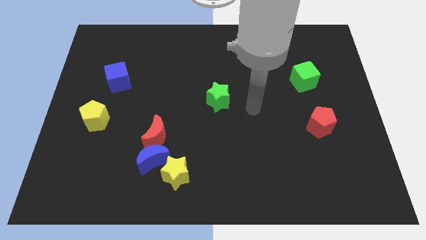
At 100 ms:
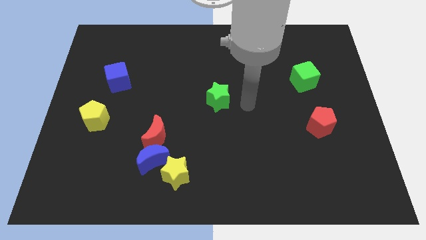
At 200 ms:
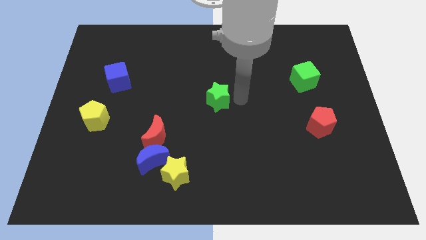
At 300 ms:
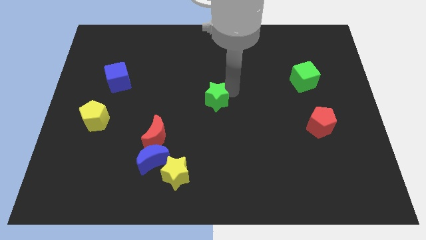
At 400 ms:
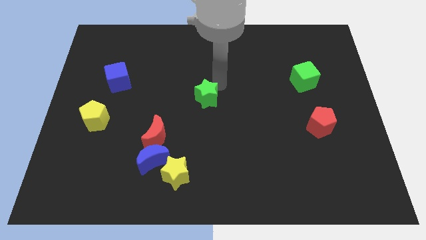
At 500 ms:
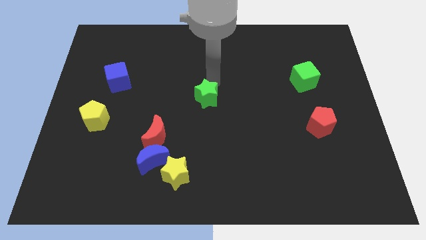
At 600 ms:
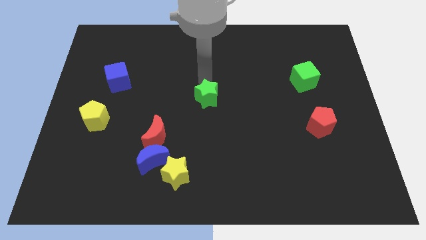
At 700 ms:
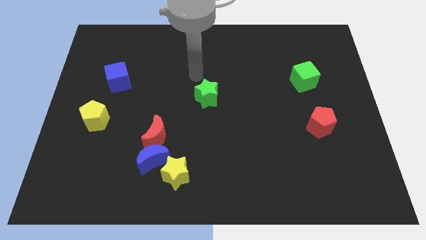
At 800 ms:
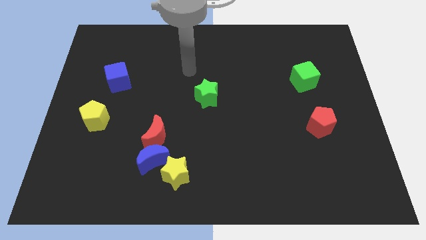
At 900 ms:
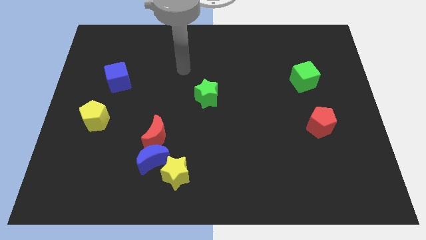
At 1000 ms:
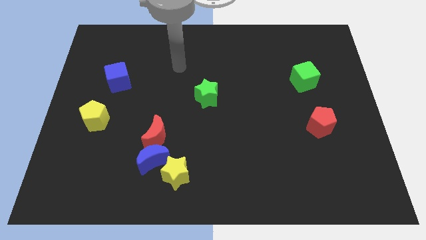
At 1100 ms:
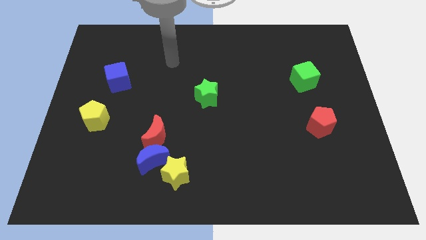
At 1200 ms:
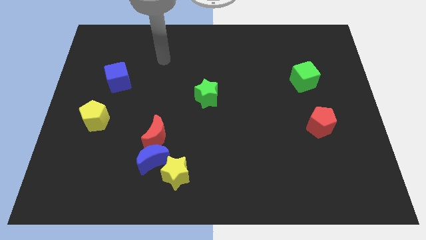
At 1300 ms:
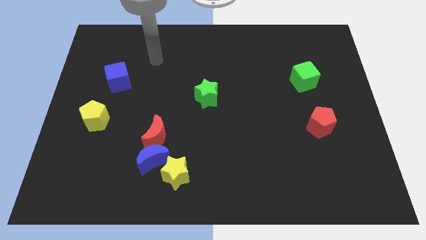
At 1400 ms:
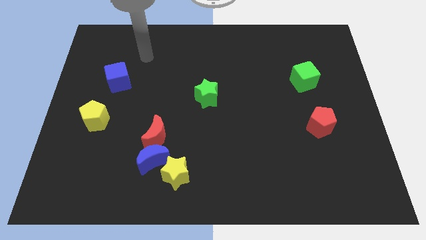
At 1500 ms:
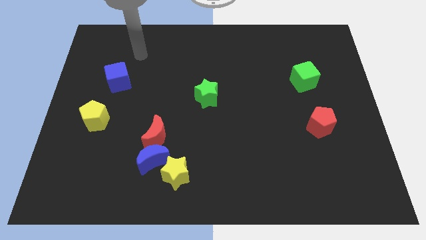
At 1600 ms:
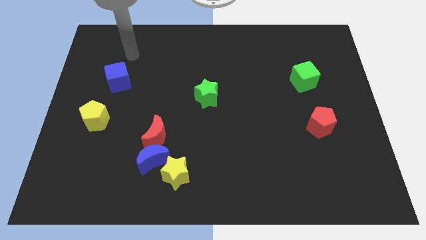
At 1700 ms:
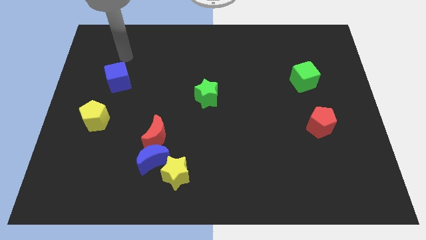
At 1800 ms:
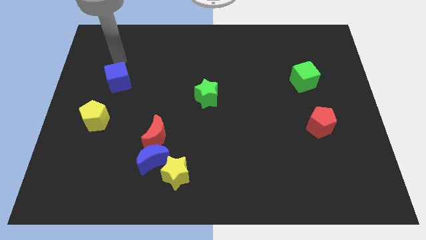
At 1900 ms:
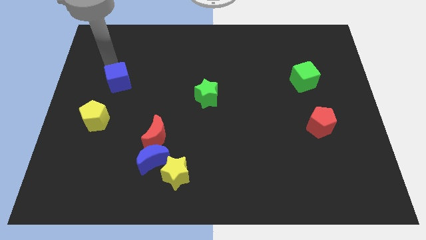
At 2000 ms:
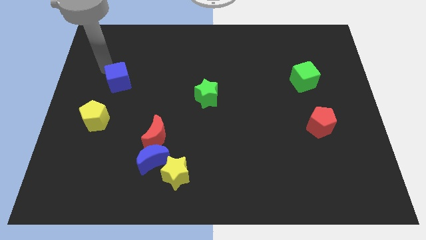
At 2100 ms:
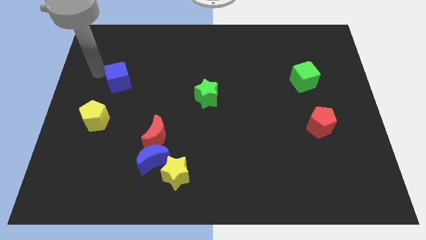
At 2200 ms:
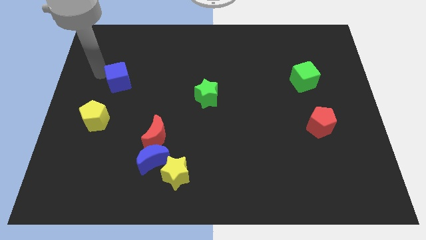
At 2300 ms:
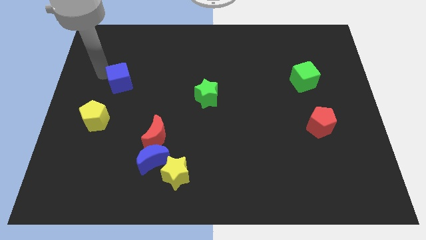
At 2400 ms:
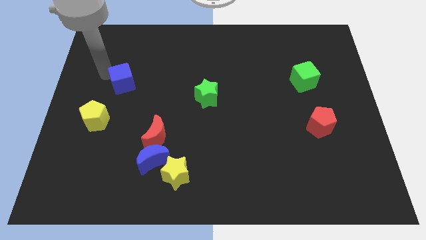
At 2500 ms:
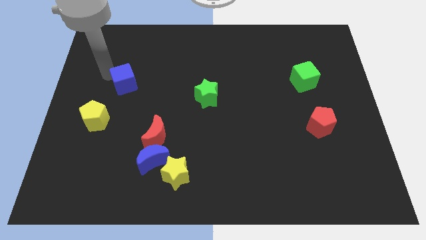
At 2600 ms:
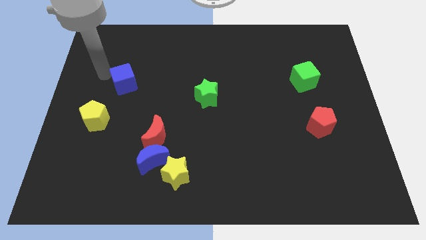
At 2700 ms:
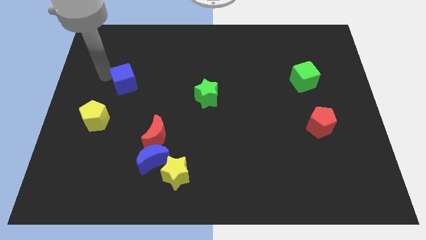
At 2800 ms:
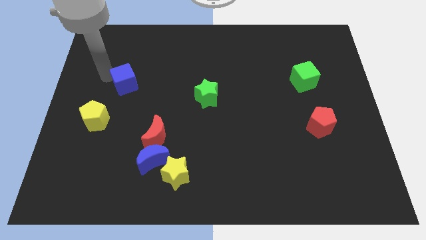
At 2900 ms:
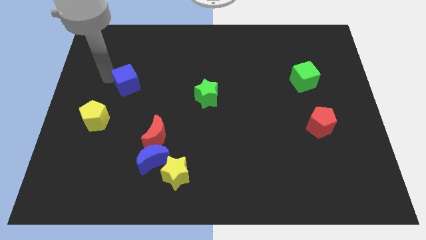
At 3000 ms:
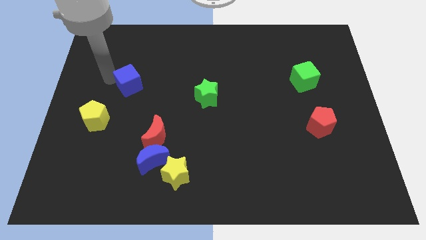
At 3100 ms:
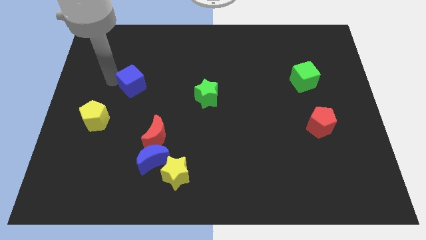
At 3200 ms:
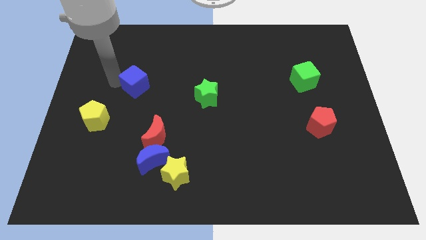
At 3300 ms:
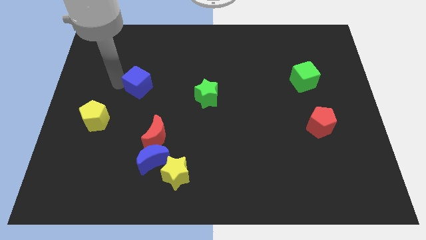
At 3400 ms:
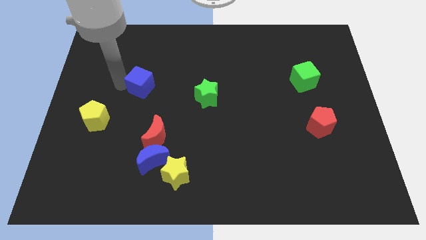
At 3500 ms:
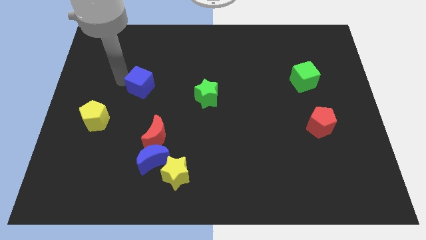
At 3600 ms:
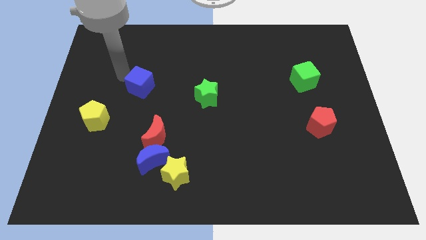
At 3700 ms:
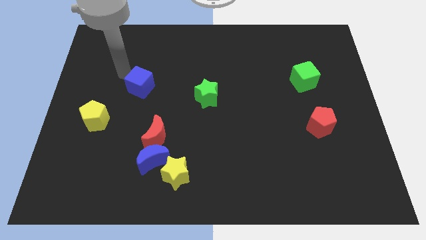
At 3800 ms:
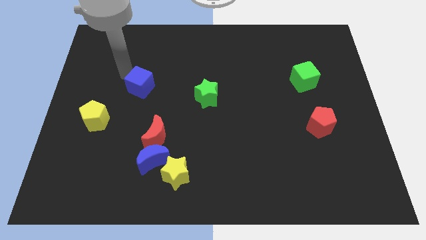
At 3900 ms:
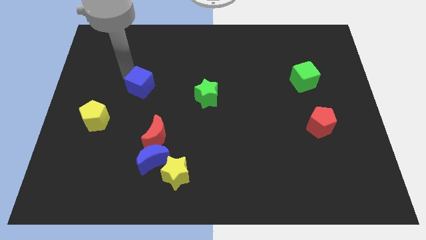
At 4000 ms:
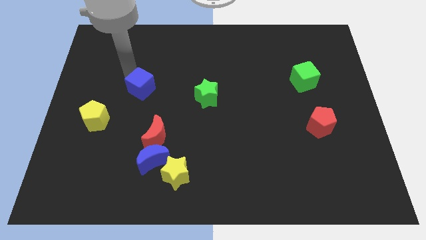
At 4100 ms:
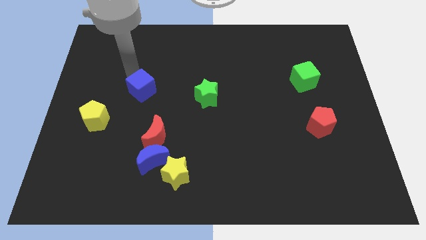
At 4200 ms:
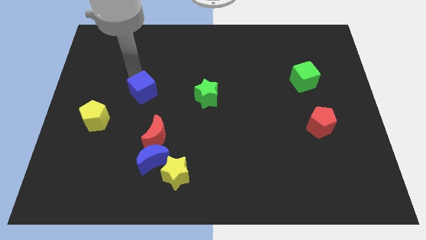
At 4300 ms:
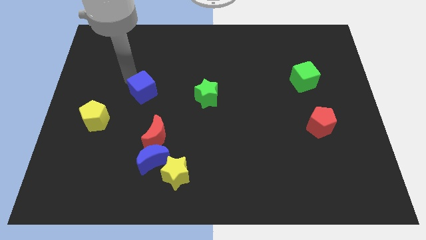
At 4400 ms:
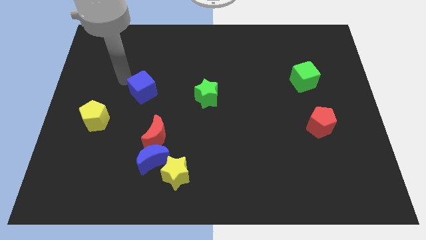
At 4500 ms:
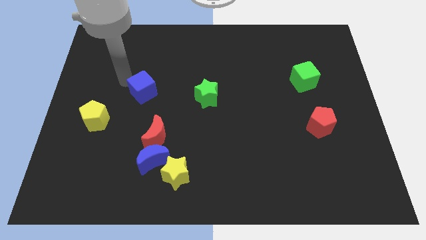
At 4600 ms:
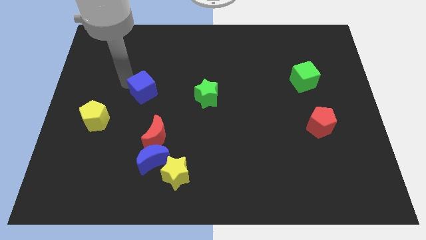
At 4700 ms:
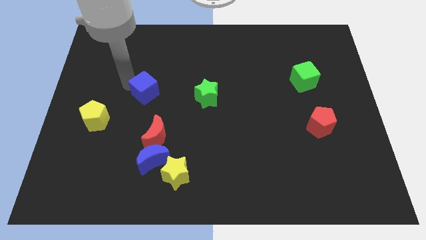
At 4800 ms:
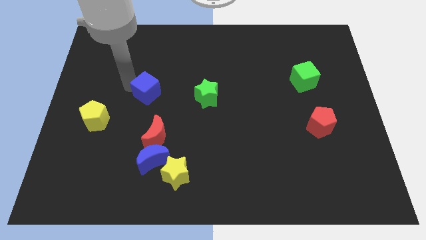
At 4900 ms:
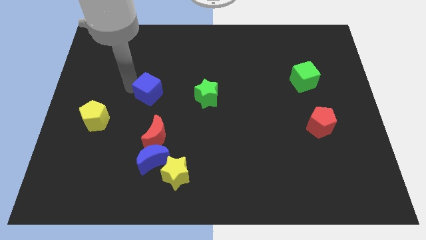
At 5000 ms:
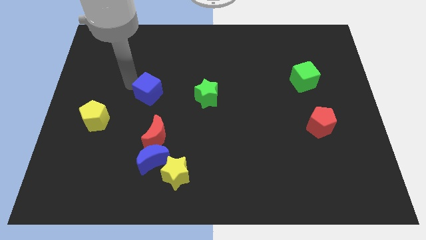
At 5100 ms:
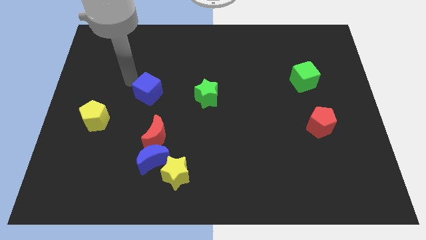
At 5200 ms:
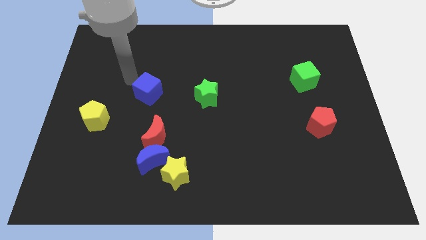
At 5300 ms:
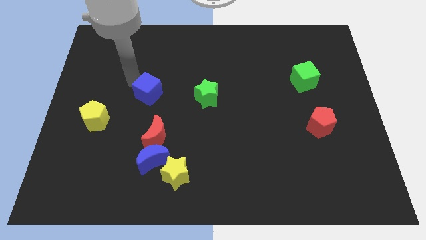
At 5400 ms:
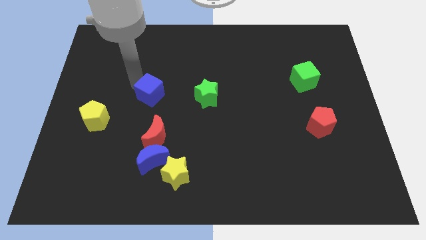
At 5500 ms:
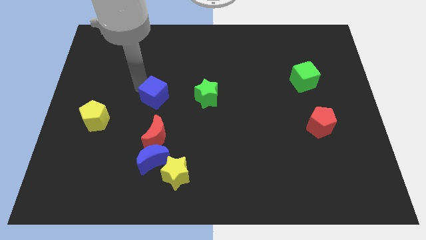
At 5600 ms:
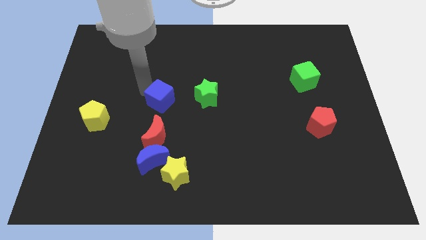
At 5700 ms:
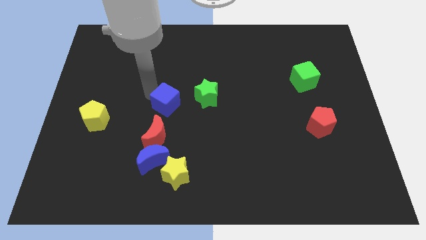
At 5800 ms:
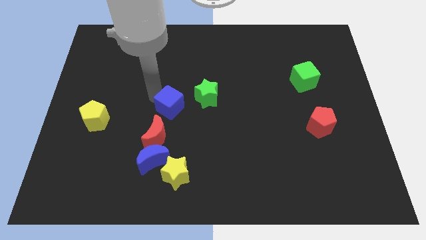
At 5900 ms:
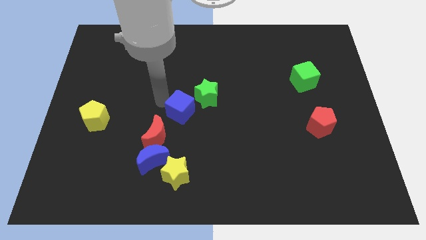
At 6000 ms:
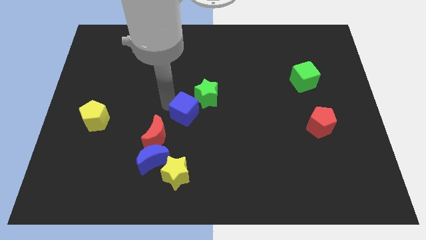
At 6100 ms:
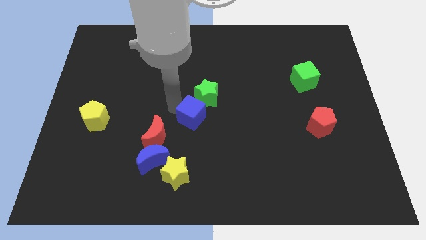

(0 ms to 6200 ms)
put the blue cube to the bottom of the green star

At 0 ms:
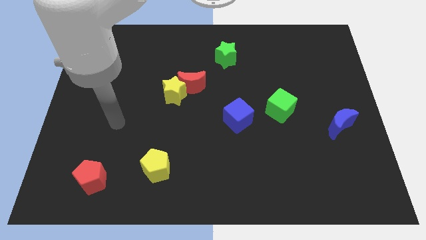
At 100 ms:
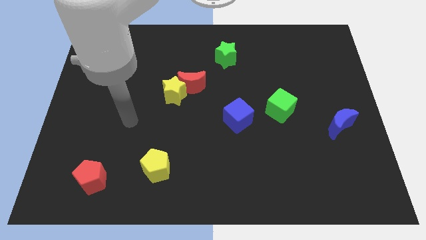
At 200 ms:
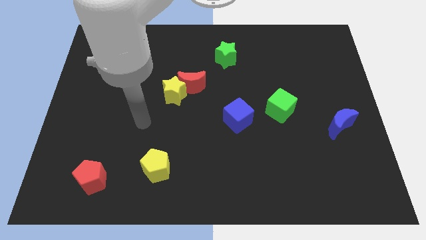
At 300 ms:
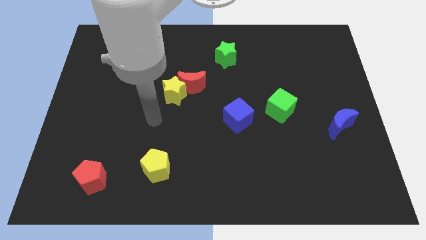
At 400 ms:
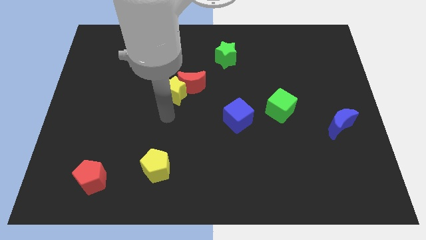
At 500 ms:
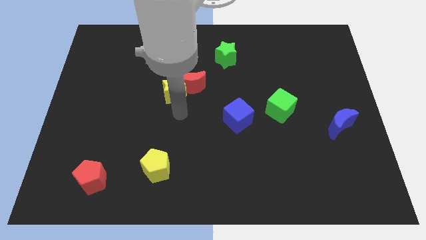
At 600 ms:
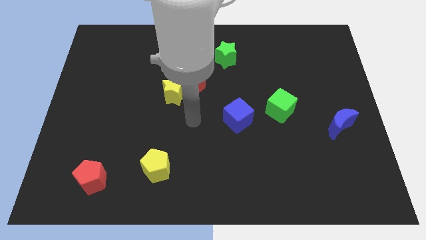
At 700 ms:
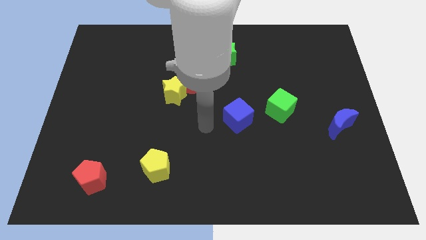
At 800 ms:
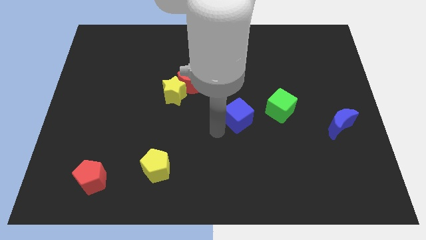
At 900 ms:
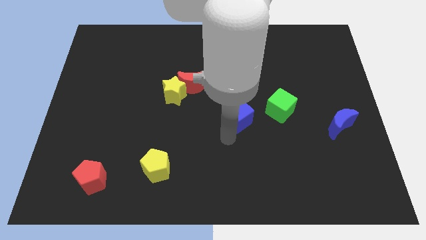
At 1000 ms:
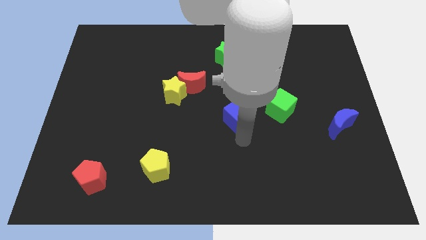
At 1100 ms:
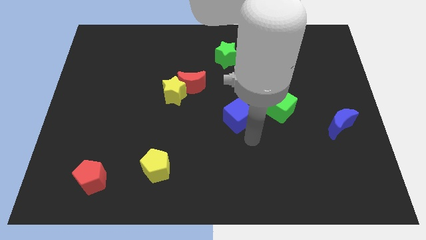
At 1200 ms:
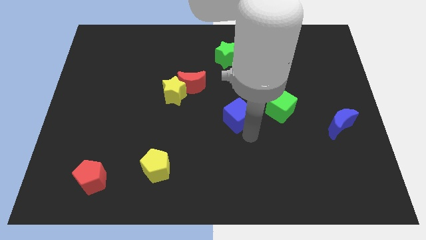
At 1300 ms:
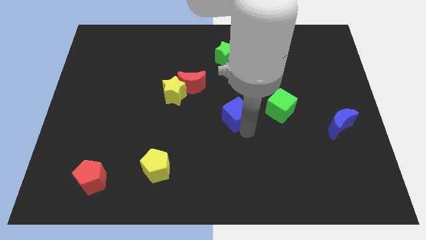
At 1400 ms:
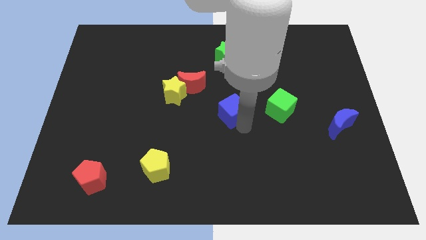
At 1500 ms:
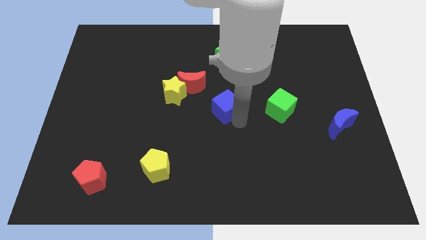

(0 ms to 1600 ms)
slide the blue cube right of the yellow star
